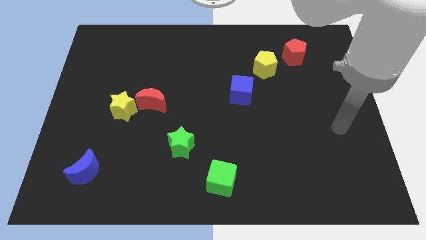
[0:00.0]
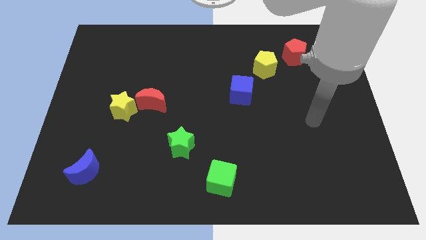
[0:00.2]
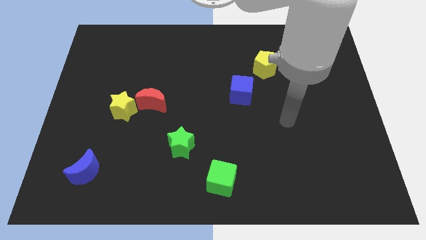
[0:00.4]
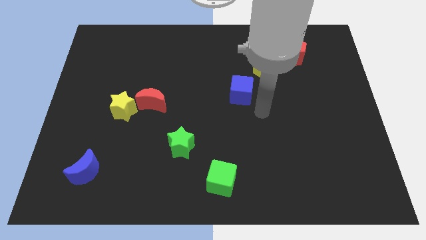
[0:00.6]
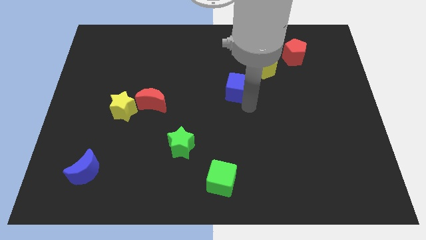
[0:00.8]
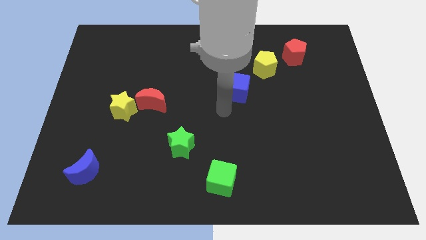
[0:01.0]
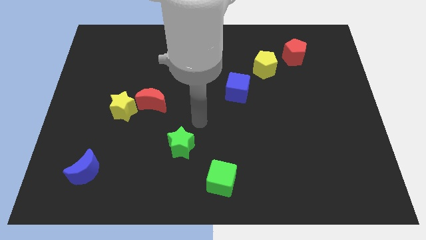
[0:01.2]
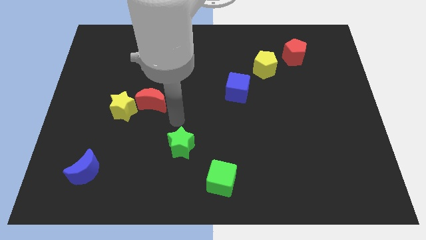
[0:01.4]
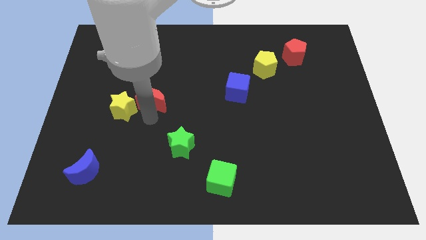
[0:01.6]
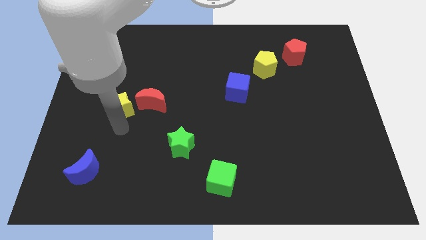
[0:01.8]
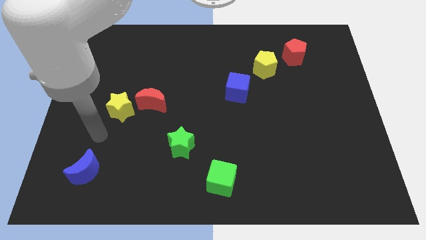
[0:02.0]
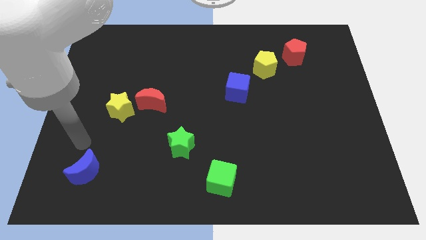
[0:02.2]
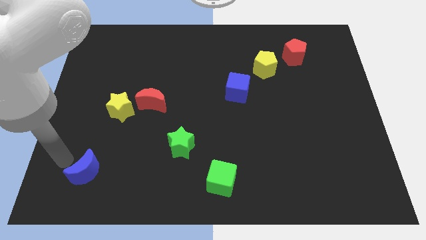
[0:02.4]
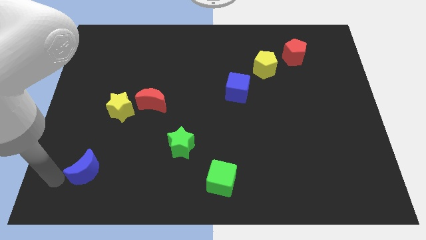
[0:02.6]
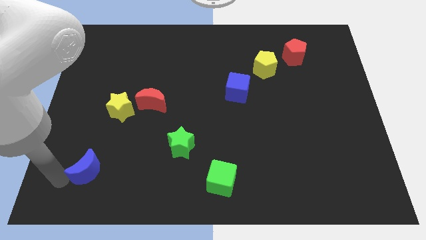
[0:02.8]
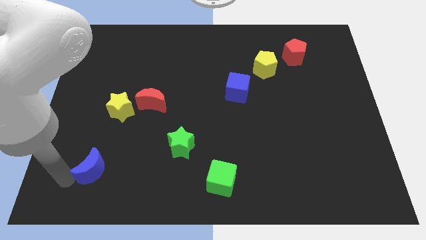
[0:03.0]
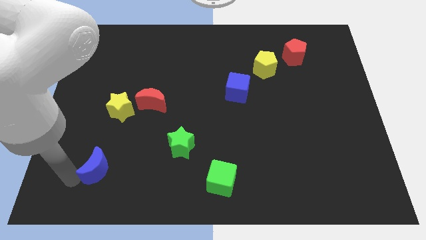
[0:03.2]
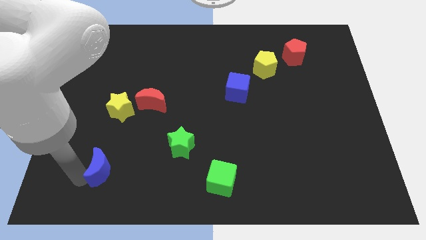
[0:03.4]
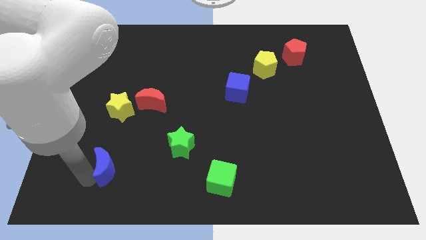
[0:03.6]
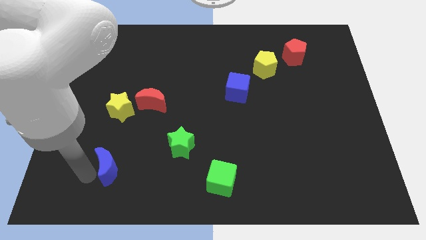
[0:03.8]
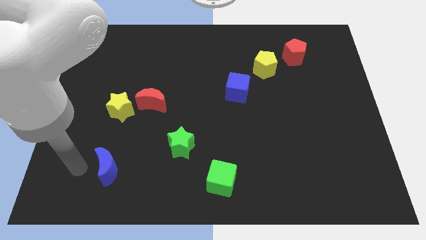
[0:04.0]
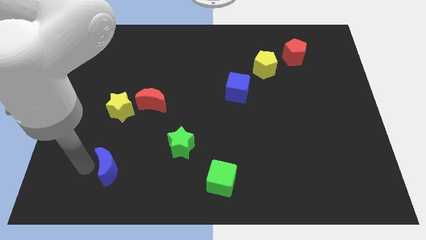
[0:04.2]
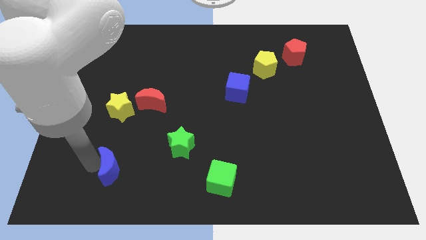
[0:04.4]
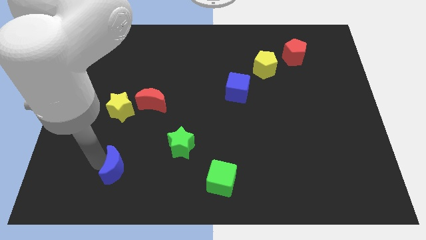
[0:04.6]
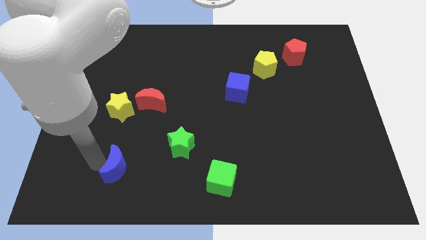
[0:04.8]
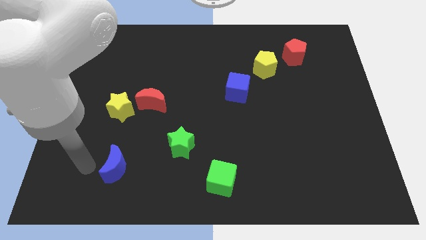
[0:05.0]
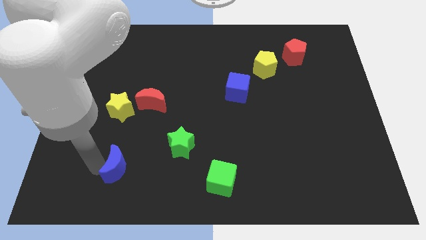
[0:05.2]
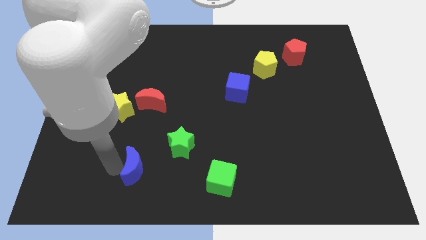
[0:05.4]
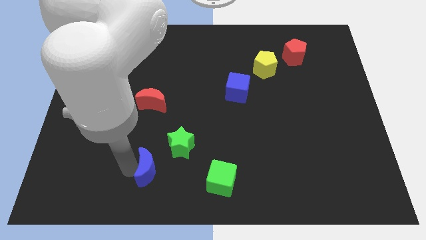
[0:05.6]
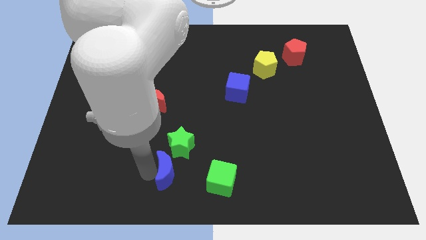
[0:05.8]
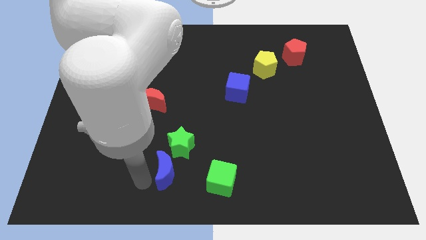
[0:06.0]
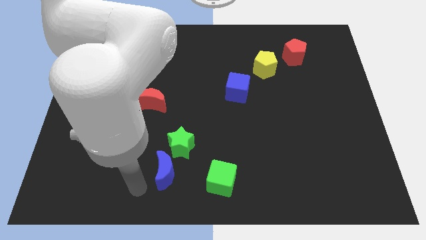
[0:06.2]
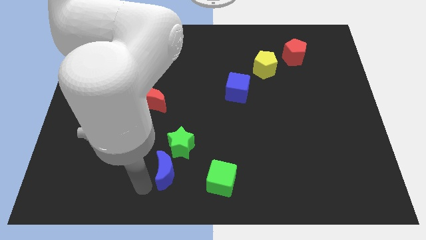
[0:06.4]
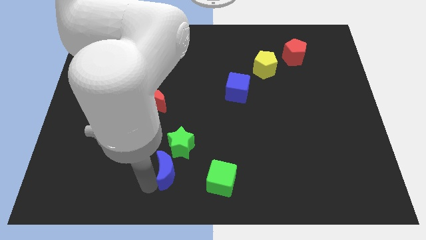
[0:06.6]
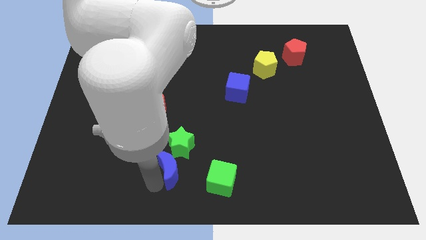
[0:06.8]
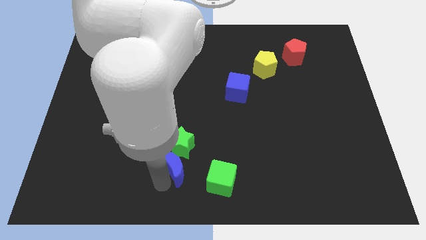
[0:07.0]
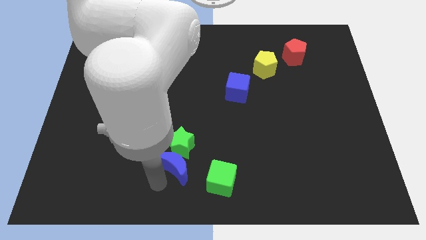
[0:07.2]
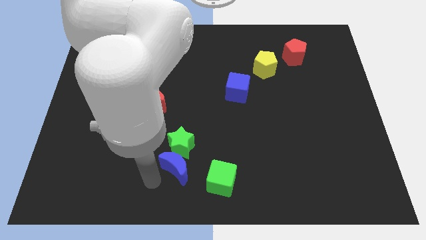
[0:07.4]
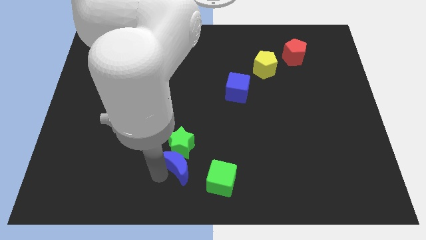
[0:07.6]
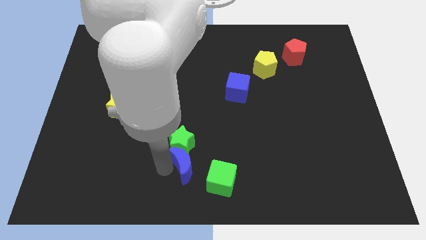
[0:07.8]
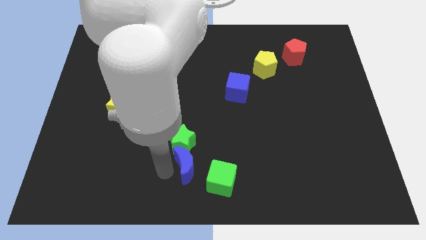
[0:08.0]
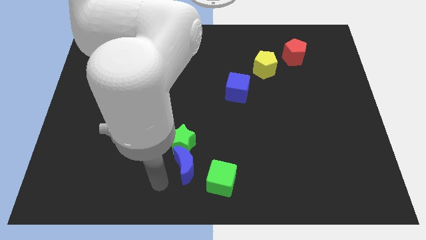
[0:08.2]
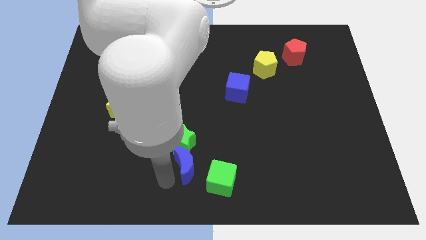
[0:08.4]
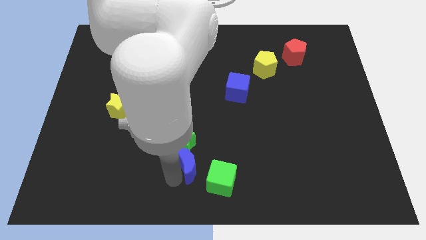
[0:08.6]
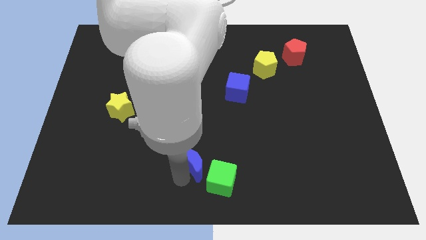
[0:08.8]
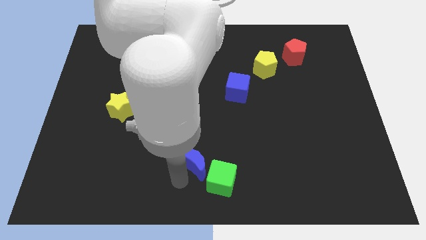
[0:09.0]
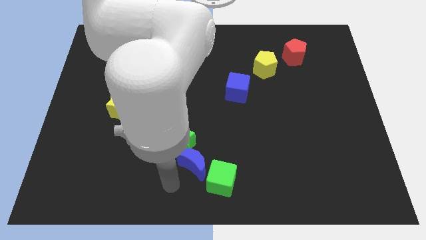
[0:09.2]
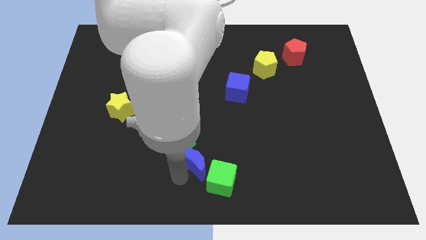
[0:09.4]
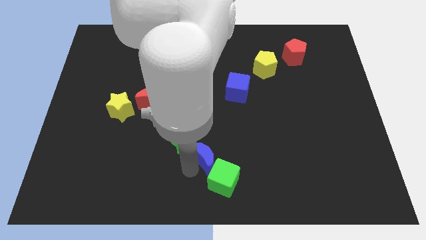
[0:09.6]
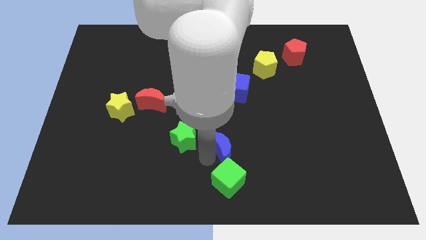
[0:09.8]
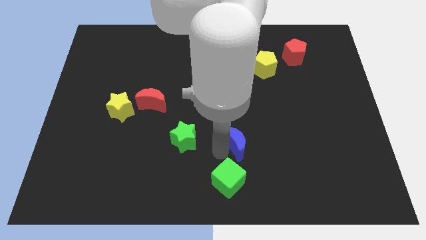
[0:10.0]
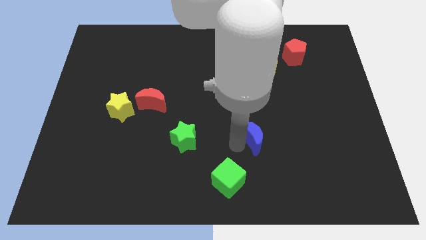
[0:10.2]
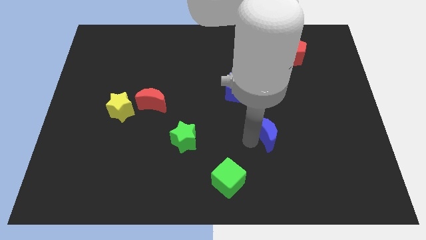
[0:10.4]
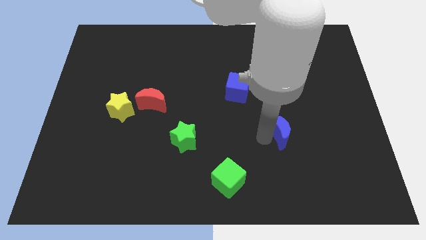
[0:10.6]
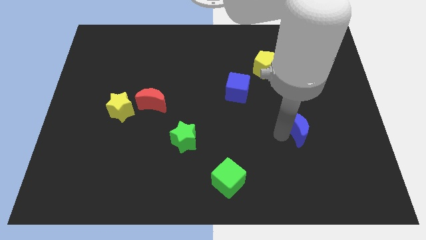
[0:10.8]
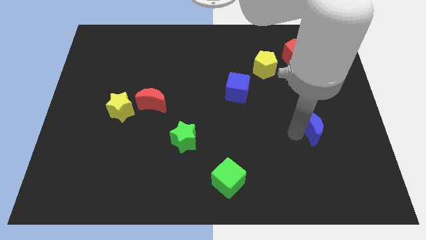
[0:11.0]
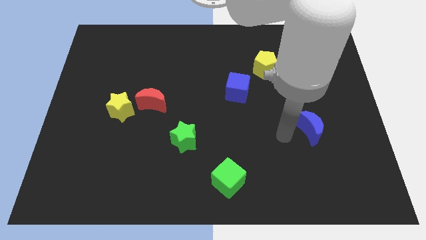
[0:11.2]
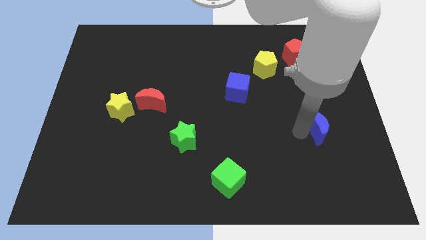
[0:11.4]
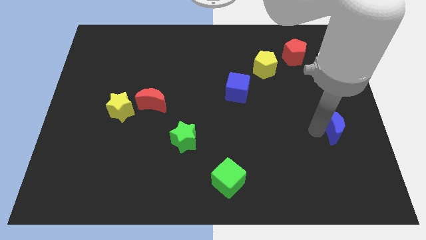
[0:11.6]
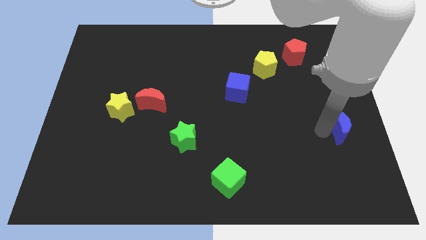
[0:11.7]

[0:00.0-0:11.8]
move the blue moon to the right side of the board

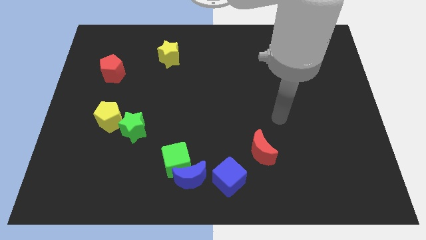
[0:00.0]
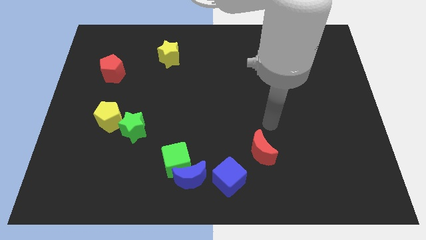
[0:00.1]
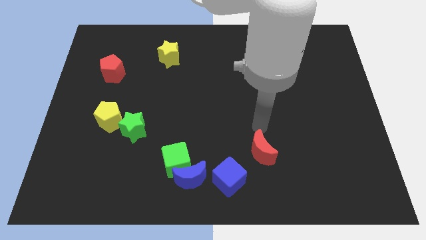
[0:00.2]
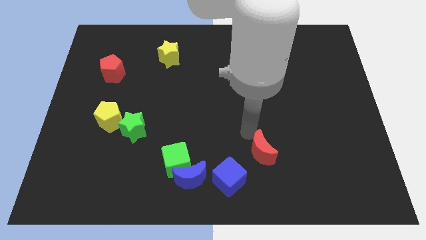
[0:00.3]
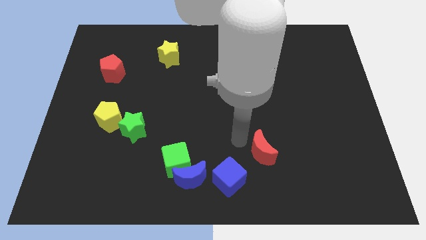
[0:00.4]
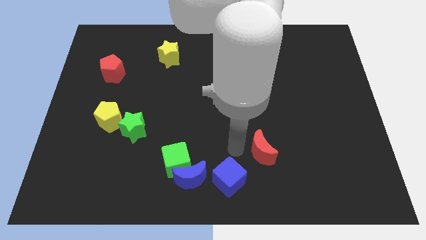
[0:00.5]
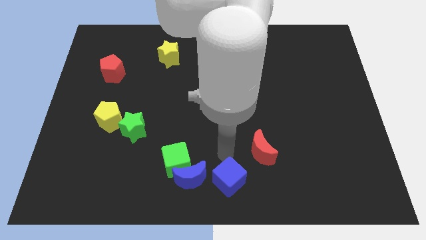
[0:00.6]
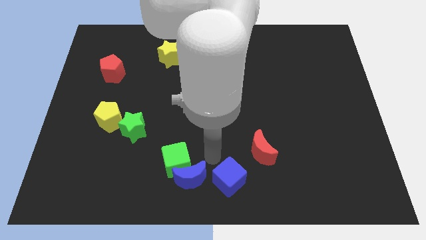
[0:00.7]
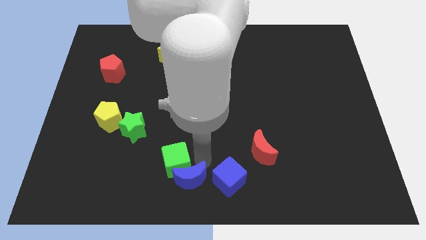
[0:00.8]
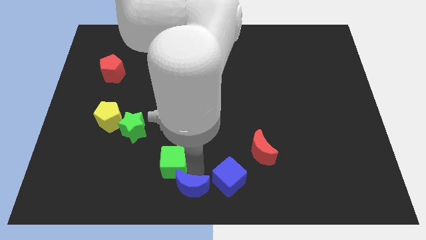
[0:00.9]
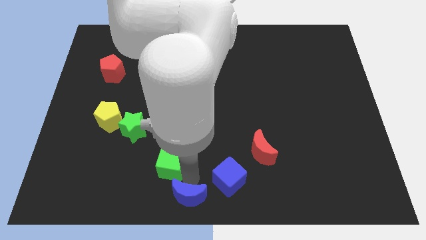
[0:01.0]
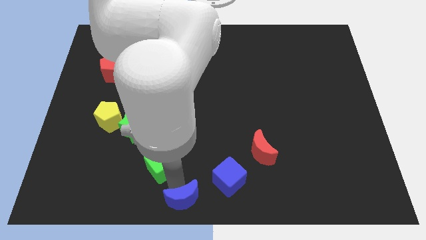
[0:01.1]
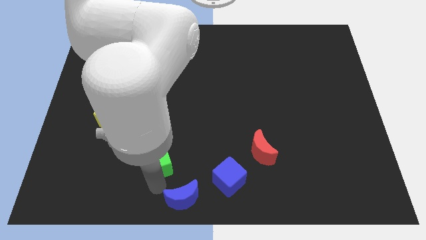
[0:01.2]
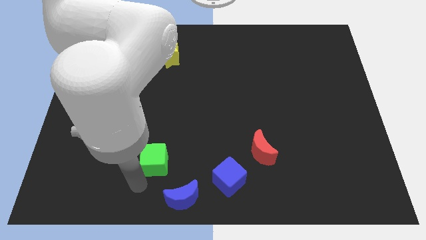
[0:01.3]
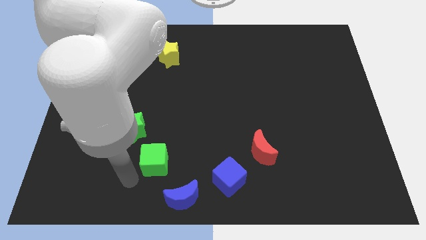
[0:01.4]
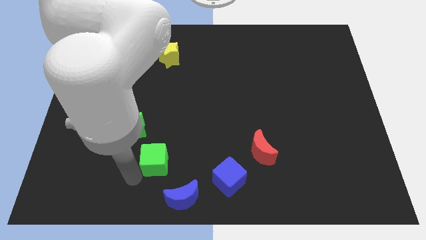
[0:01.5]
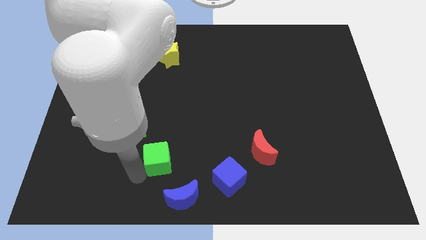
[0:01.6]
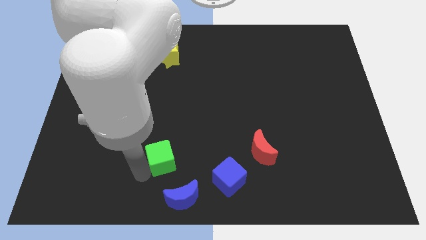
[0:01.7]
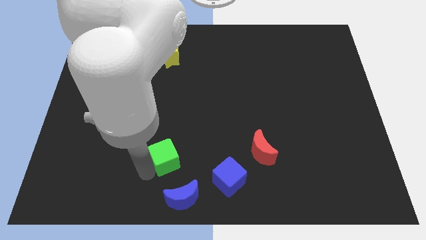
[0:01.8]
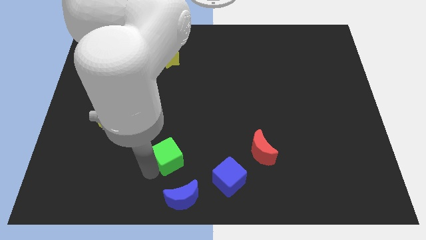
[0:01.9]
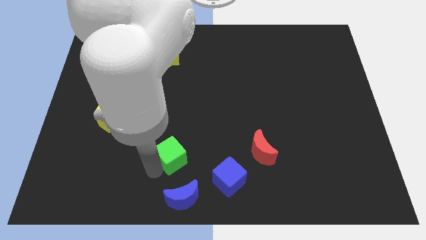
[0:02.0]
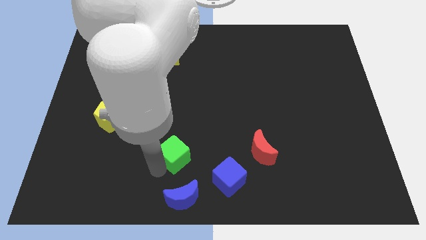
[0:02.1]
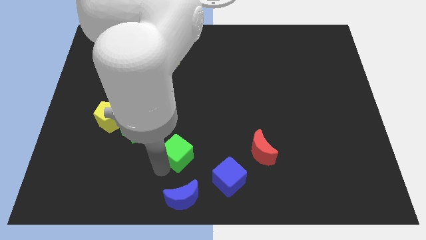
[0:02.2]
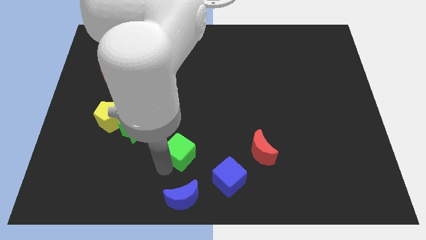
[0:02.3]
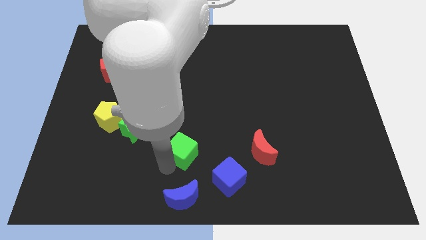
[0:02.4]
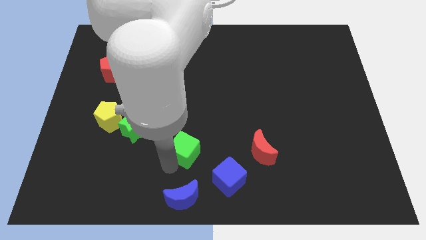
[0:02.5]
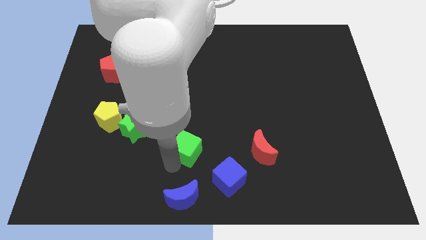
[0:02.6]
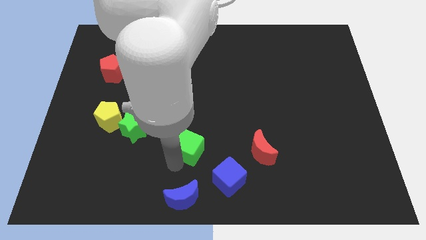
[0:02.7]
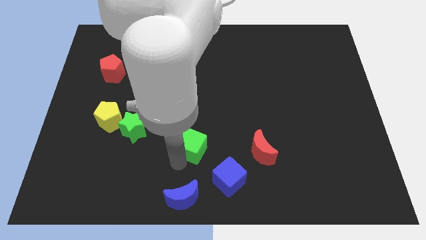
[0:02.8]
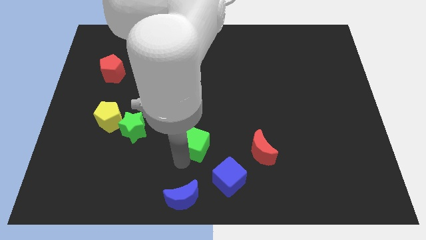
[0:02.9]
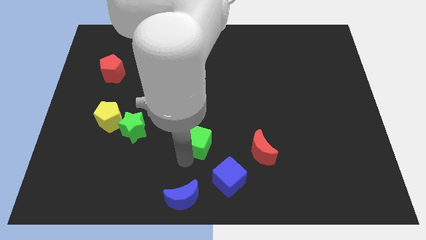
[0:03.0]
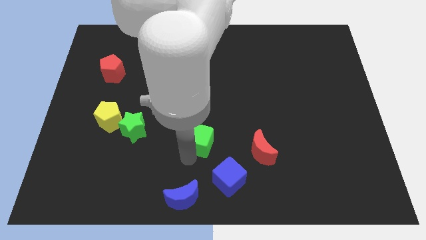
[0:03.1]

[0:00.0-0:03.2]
put the green cube to the middle of the board
